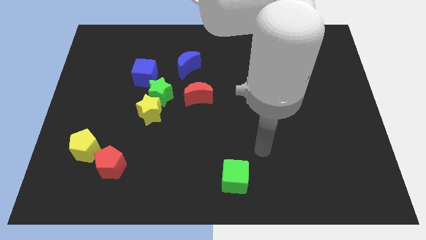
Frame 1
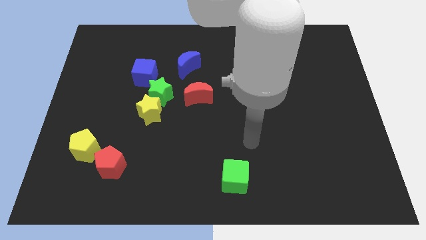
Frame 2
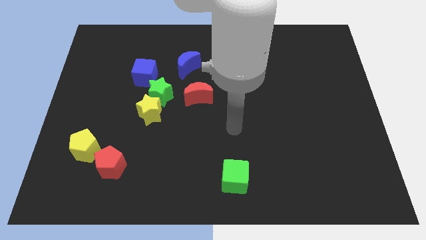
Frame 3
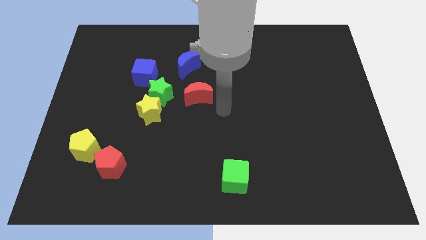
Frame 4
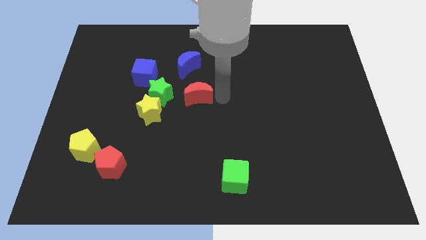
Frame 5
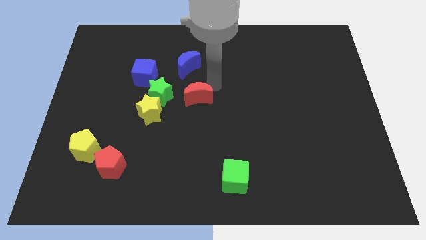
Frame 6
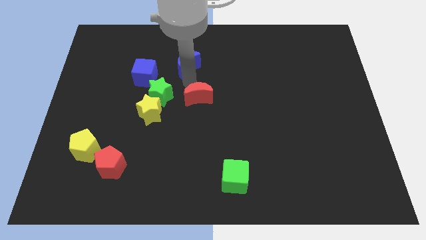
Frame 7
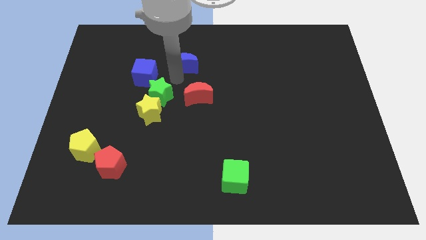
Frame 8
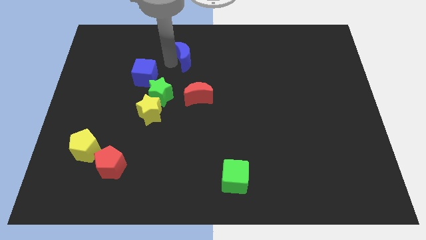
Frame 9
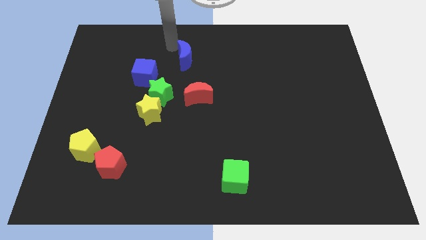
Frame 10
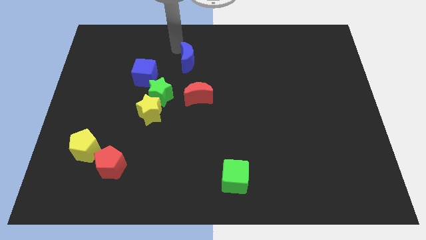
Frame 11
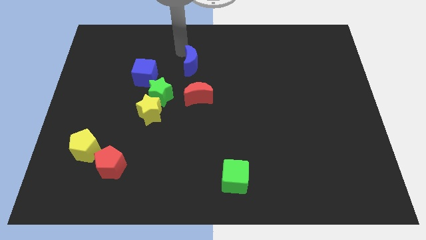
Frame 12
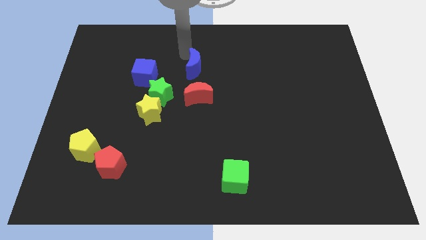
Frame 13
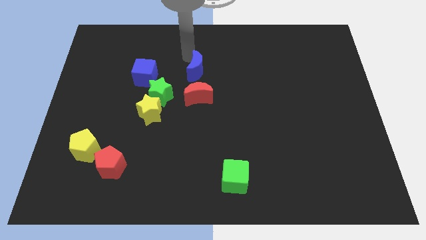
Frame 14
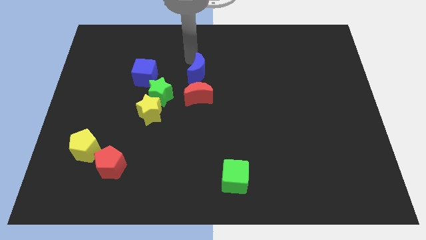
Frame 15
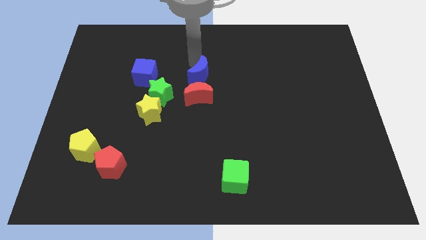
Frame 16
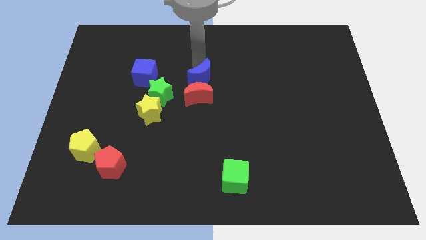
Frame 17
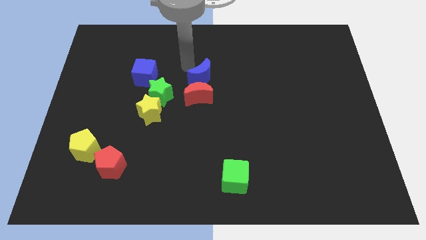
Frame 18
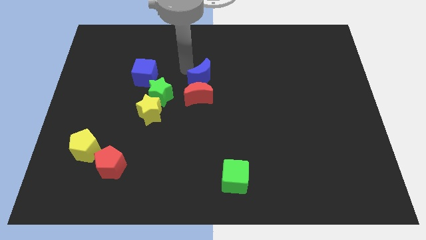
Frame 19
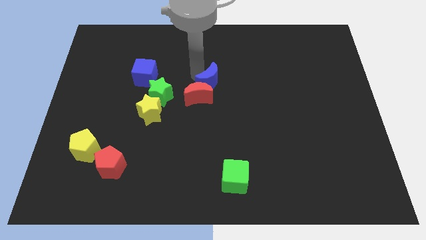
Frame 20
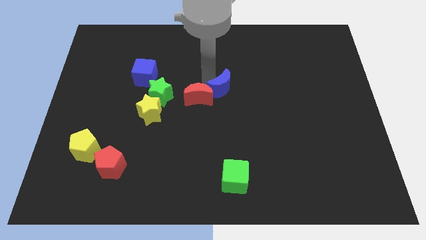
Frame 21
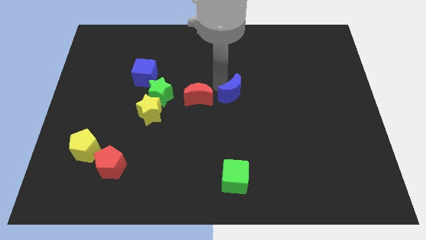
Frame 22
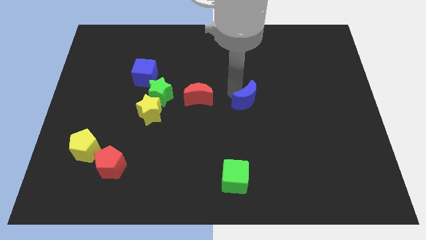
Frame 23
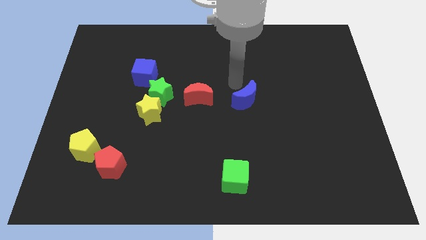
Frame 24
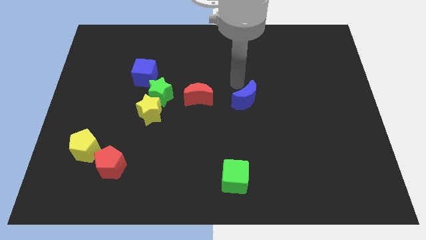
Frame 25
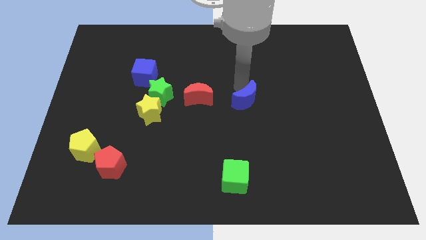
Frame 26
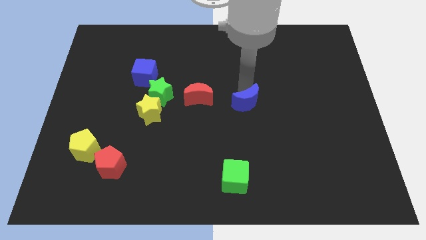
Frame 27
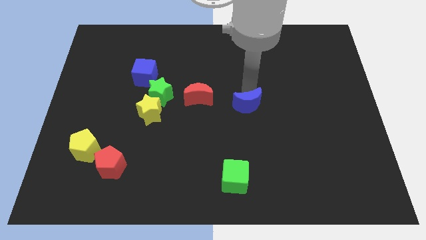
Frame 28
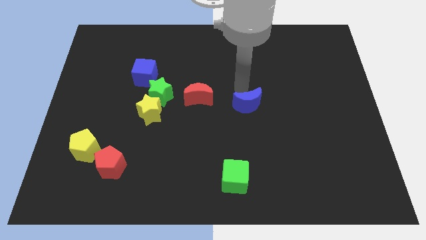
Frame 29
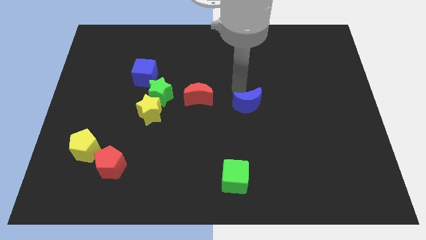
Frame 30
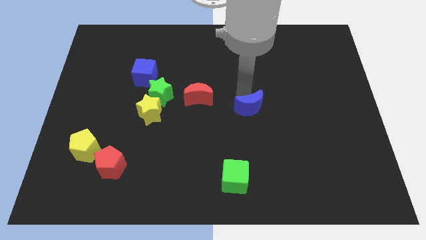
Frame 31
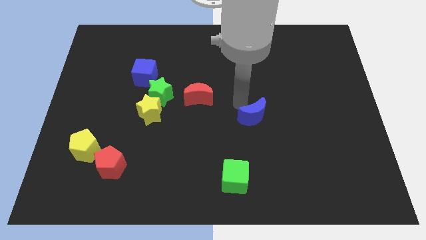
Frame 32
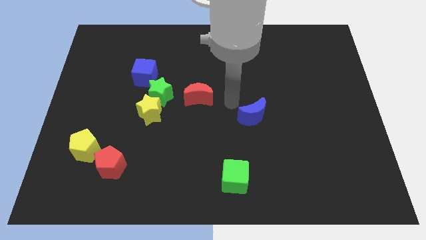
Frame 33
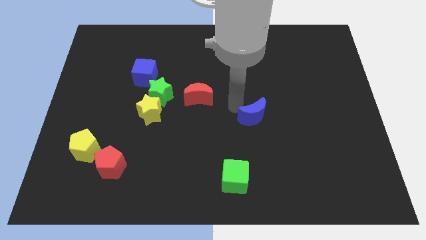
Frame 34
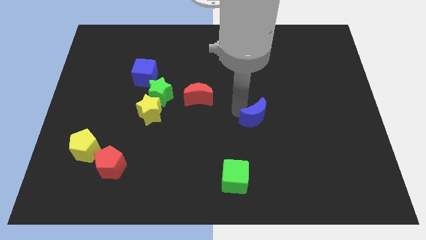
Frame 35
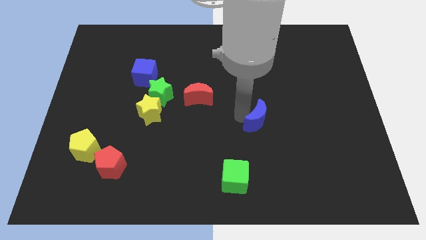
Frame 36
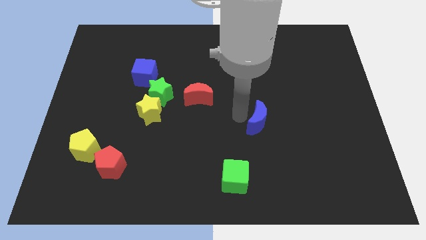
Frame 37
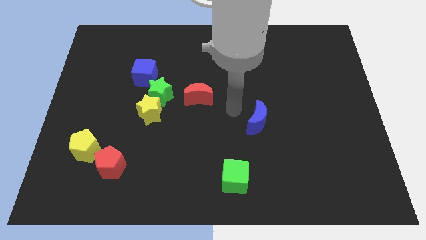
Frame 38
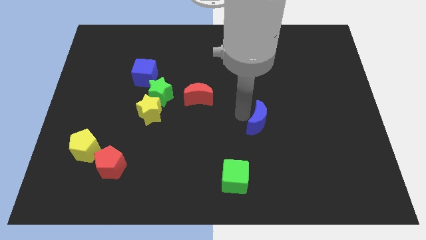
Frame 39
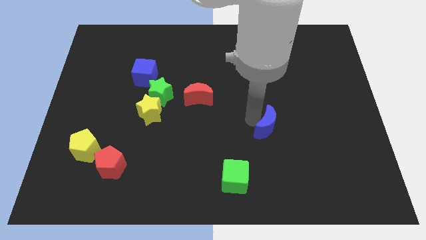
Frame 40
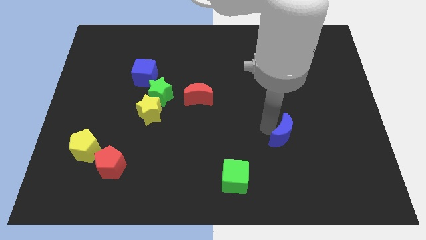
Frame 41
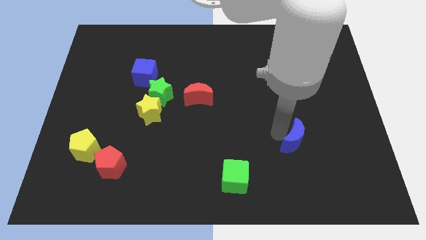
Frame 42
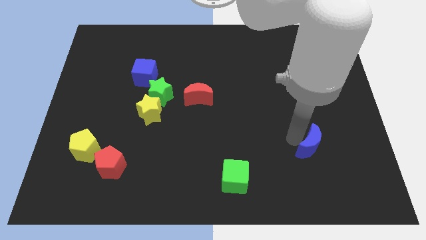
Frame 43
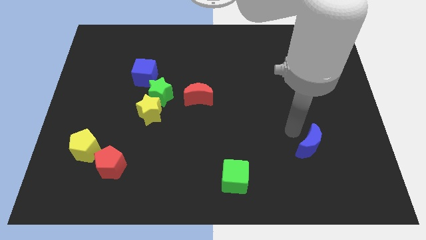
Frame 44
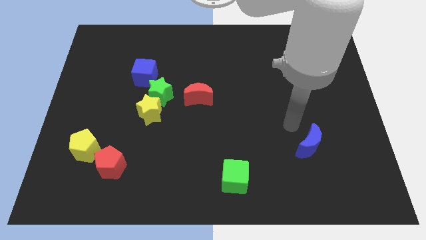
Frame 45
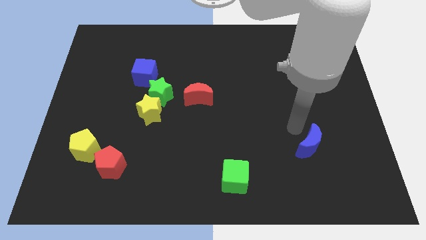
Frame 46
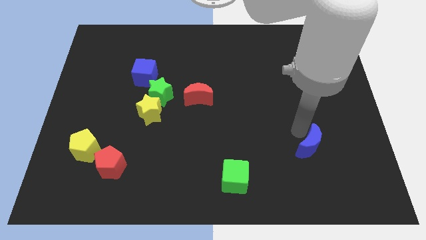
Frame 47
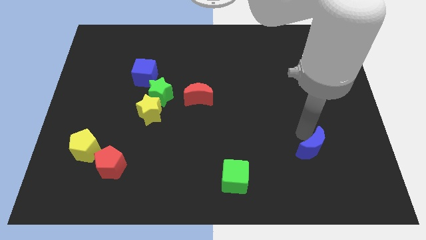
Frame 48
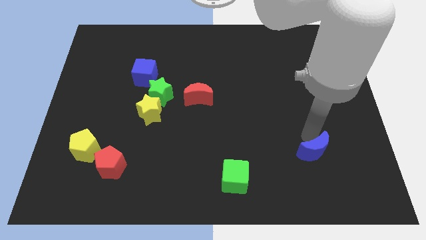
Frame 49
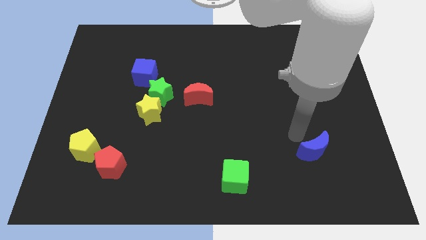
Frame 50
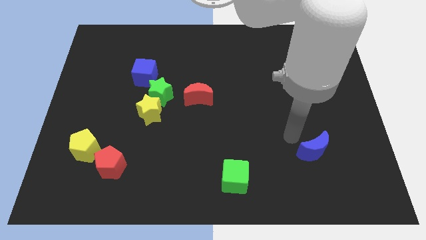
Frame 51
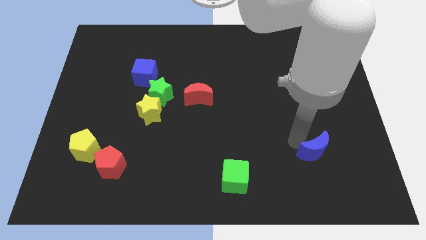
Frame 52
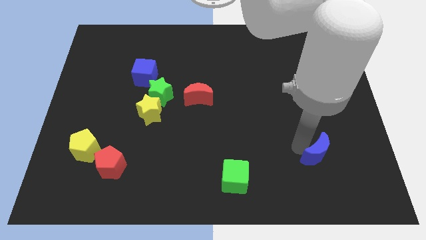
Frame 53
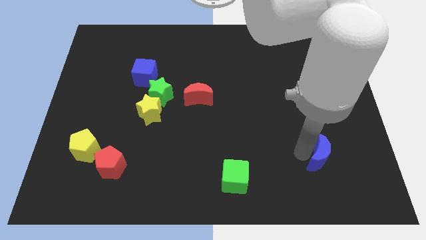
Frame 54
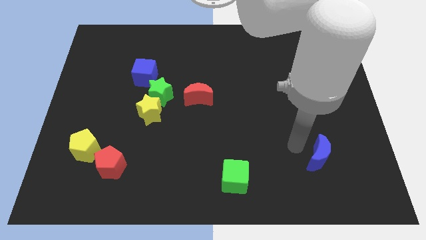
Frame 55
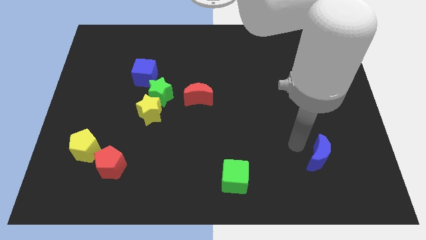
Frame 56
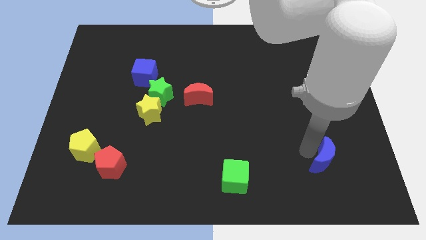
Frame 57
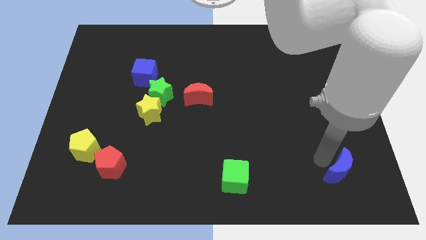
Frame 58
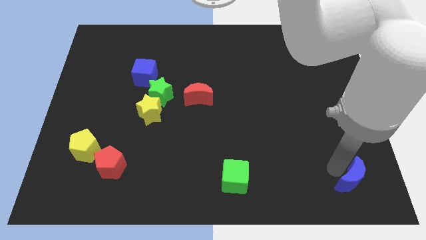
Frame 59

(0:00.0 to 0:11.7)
push the blue moon to the bottom right of the board
